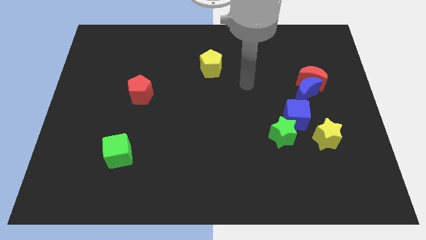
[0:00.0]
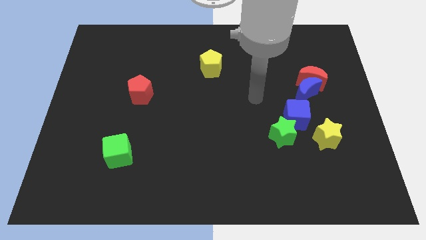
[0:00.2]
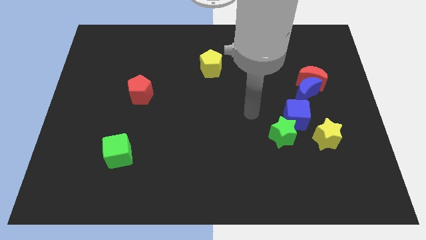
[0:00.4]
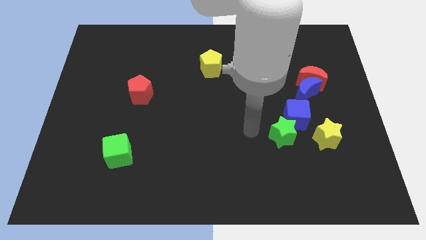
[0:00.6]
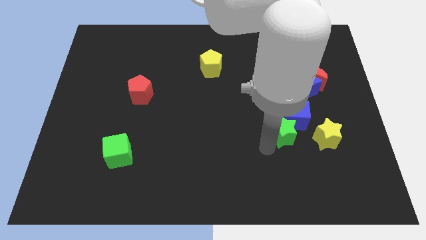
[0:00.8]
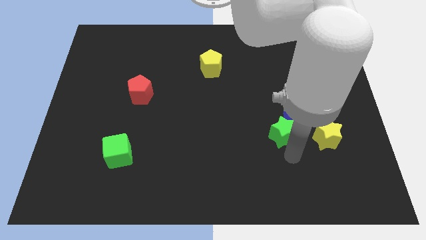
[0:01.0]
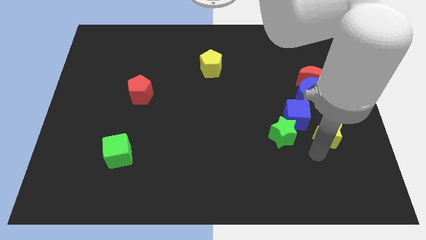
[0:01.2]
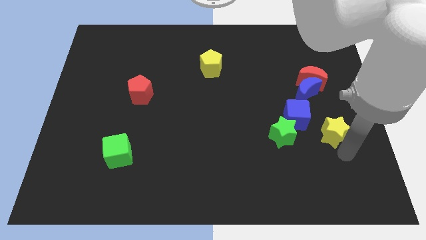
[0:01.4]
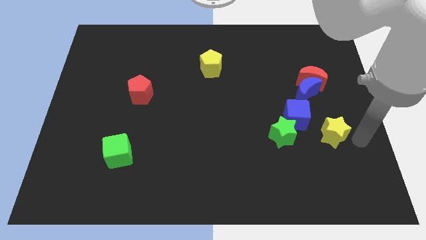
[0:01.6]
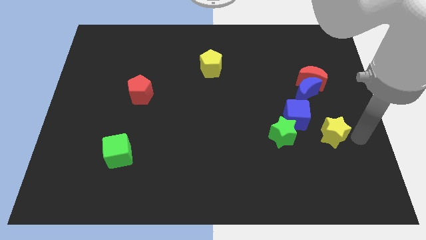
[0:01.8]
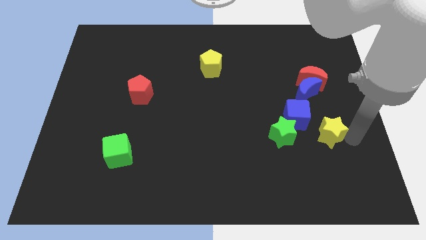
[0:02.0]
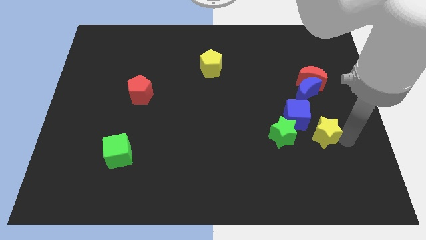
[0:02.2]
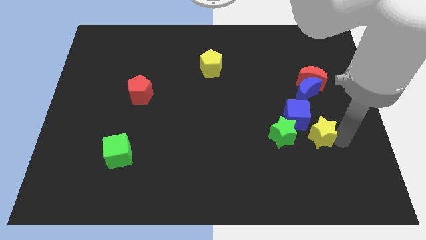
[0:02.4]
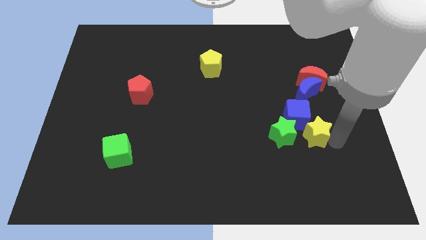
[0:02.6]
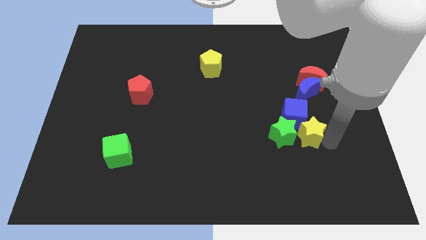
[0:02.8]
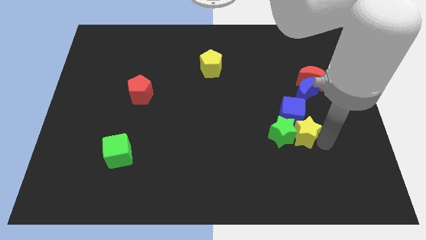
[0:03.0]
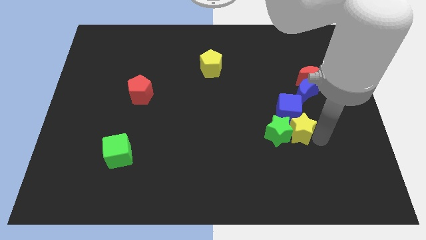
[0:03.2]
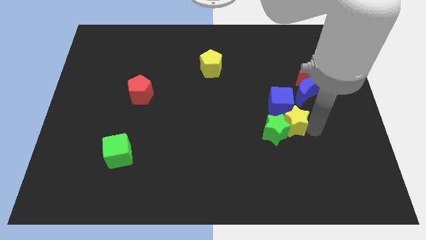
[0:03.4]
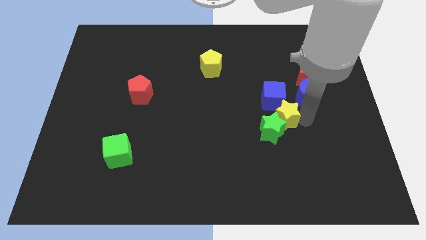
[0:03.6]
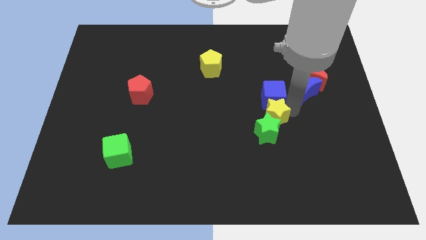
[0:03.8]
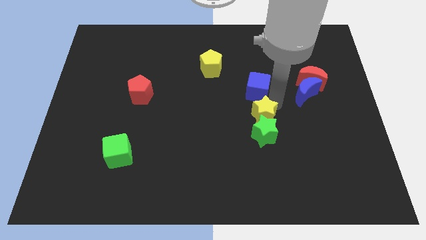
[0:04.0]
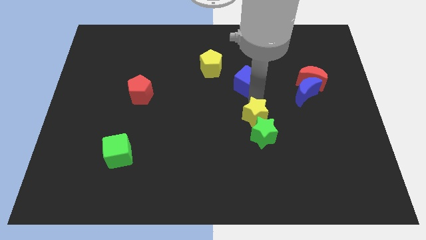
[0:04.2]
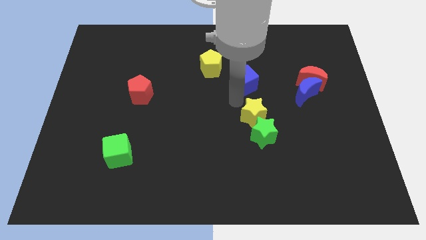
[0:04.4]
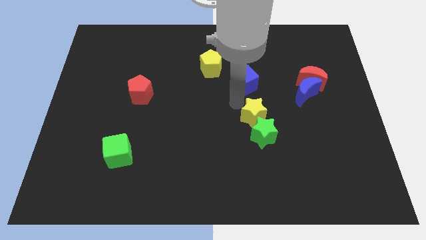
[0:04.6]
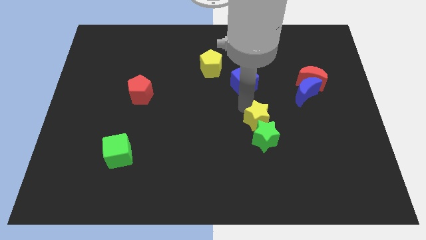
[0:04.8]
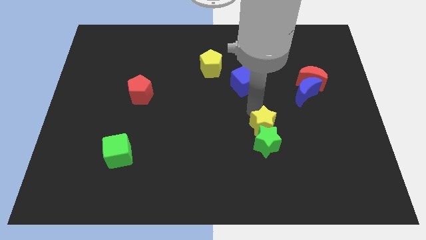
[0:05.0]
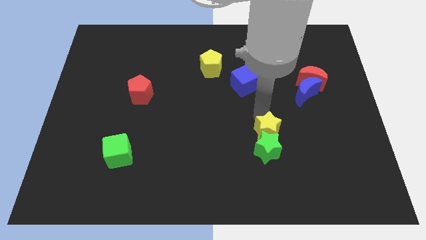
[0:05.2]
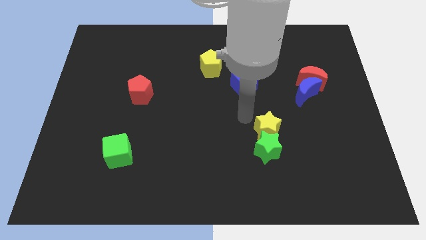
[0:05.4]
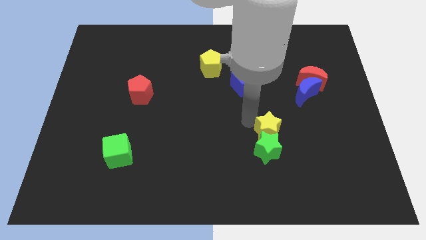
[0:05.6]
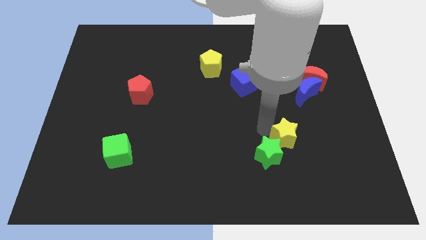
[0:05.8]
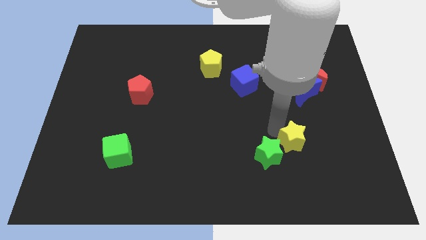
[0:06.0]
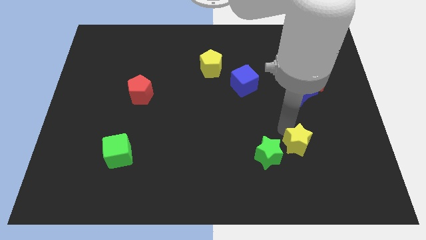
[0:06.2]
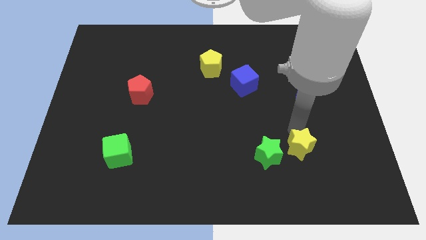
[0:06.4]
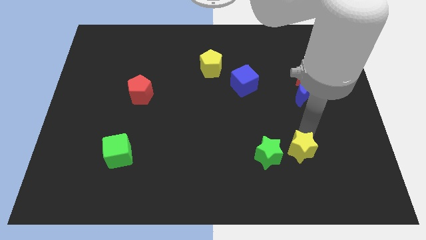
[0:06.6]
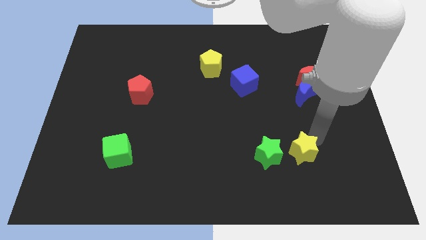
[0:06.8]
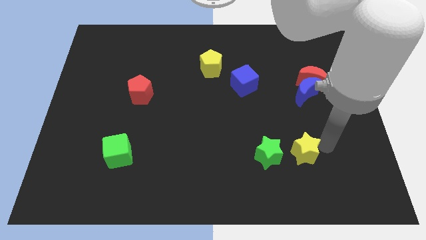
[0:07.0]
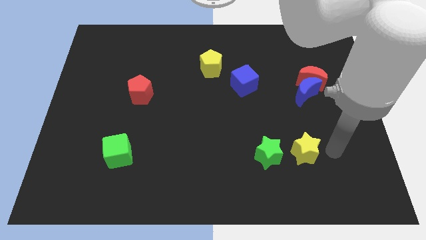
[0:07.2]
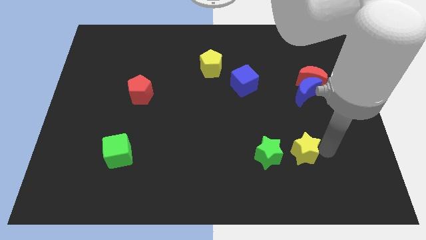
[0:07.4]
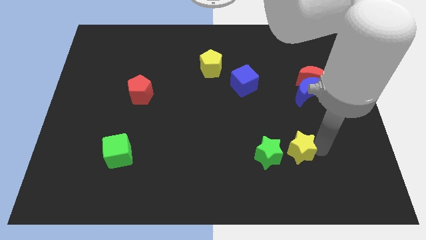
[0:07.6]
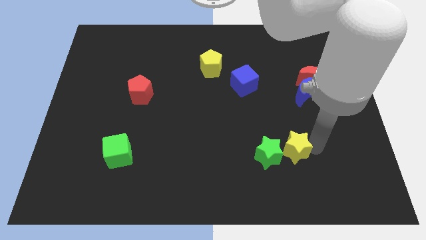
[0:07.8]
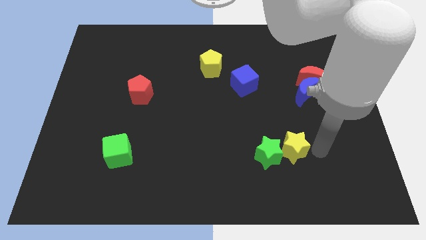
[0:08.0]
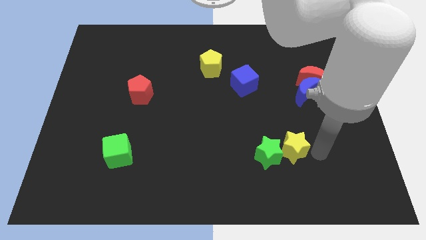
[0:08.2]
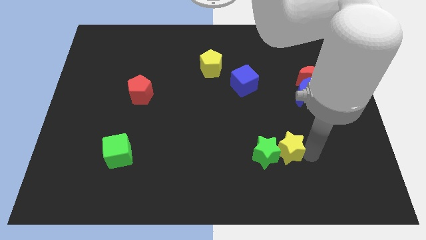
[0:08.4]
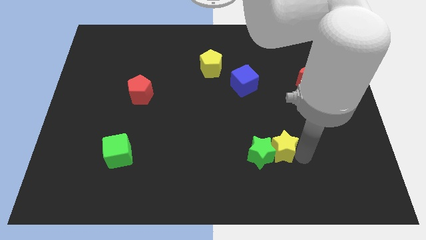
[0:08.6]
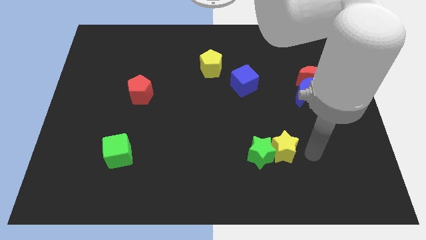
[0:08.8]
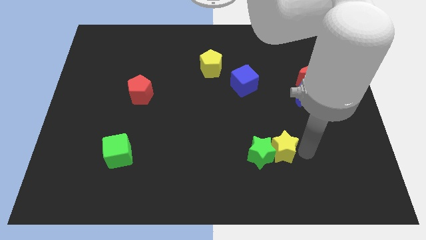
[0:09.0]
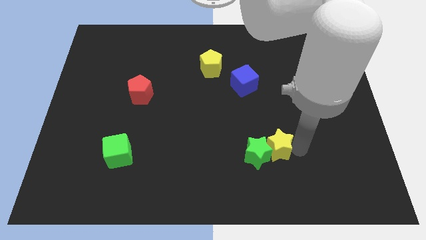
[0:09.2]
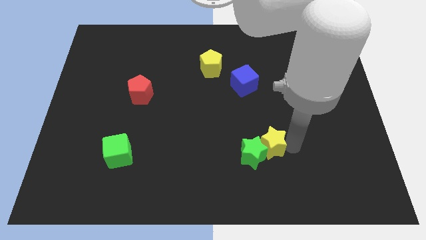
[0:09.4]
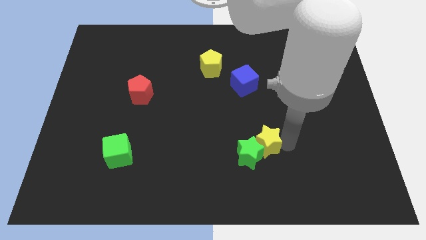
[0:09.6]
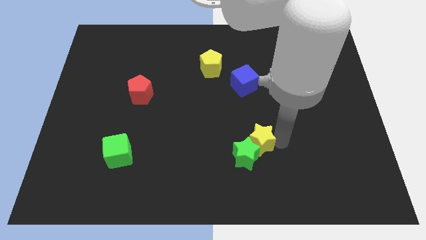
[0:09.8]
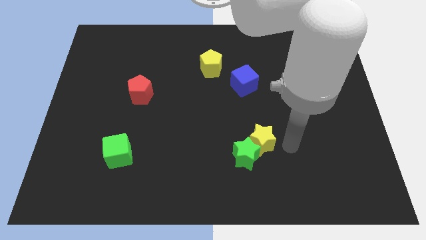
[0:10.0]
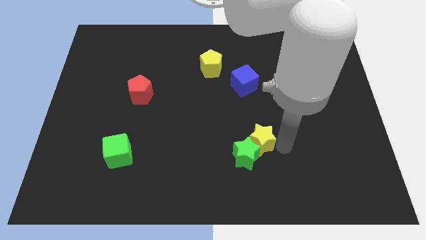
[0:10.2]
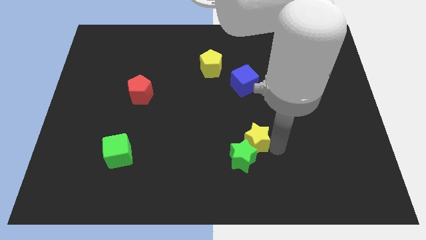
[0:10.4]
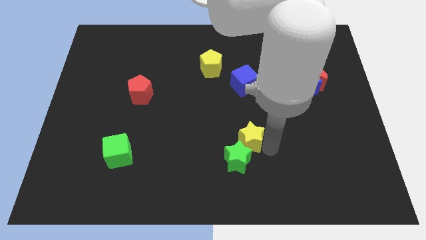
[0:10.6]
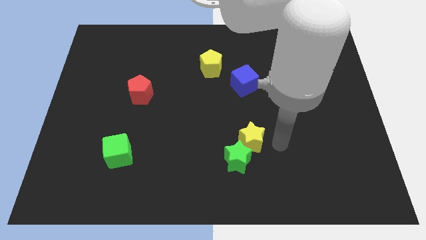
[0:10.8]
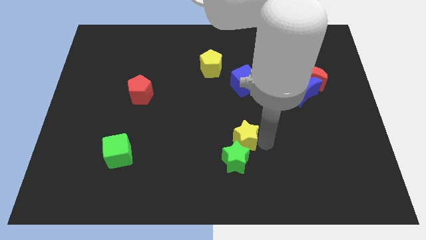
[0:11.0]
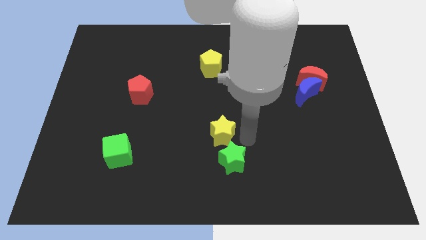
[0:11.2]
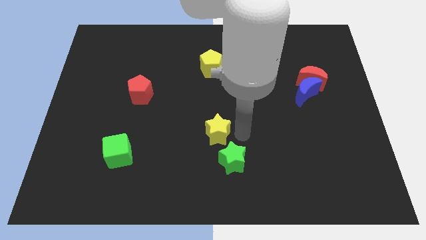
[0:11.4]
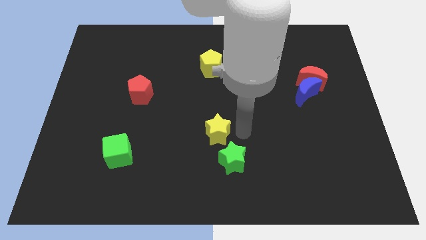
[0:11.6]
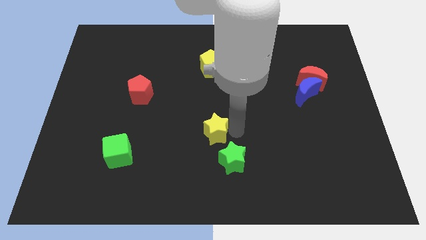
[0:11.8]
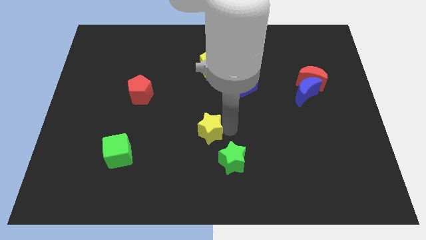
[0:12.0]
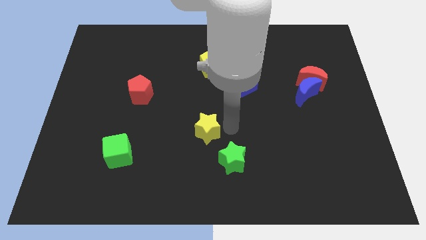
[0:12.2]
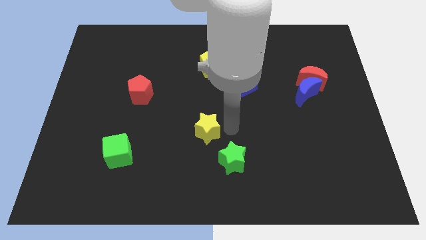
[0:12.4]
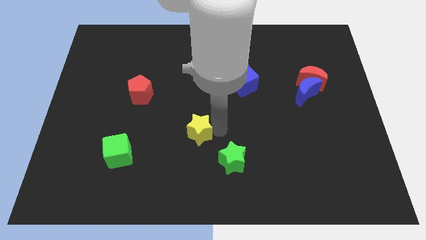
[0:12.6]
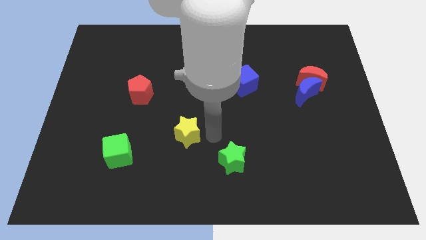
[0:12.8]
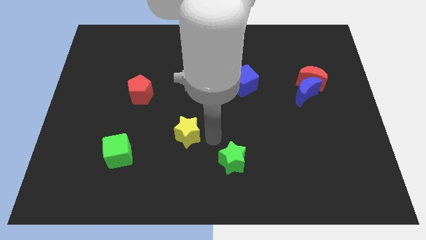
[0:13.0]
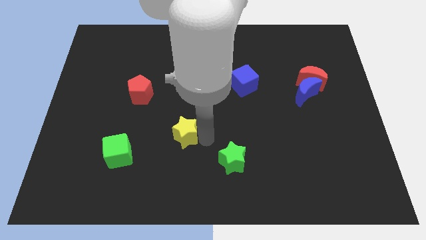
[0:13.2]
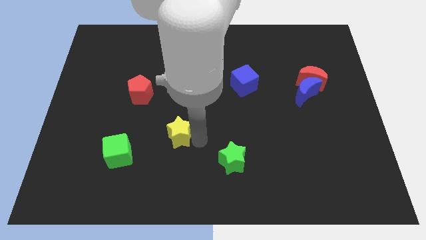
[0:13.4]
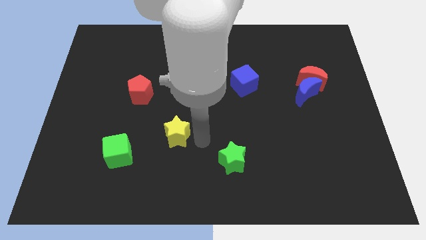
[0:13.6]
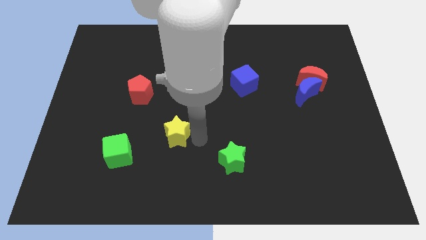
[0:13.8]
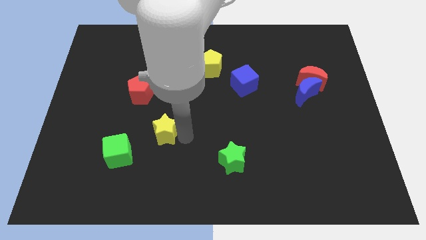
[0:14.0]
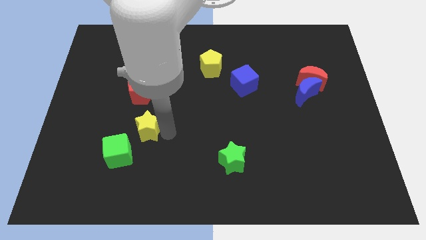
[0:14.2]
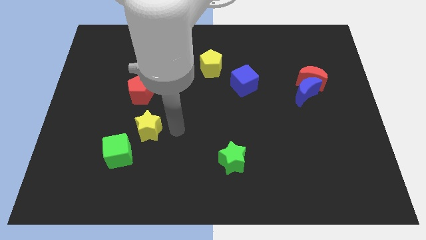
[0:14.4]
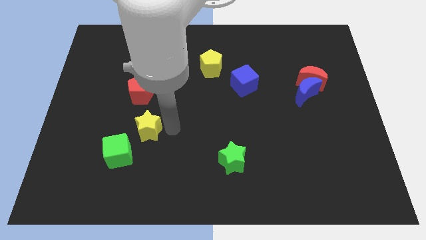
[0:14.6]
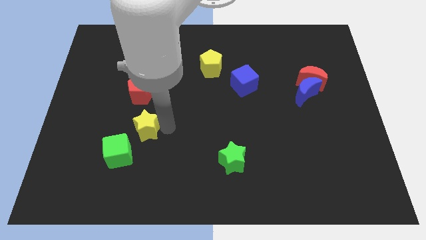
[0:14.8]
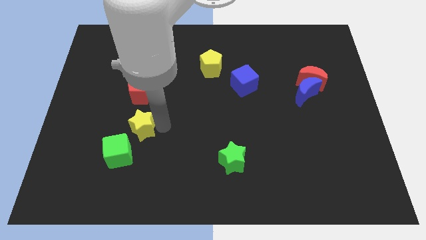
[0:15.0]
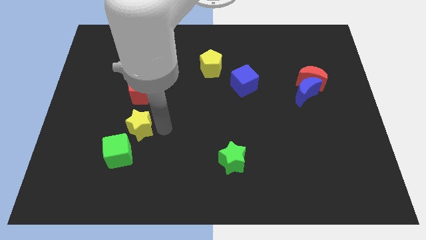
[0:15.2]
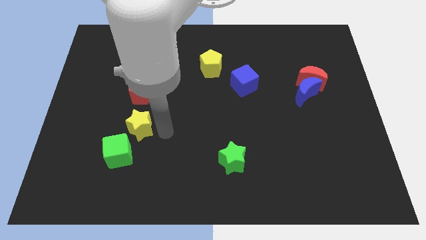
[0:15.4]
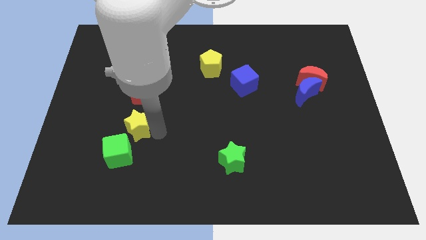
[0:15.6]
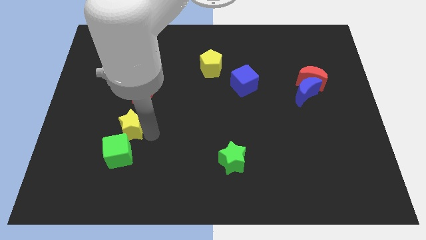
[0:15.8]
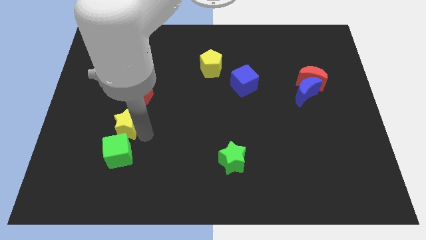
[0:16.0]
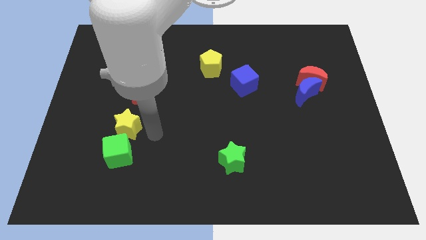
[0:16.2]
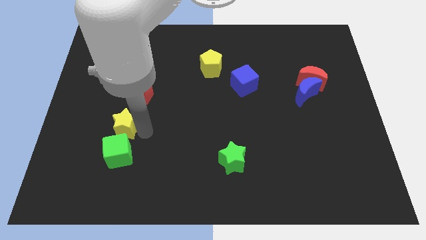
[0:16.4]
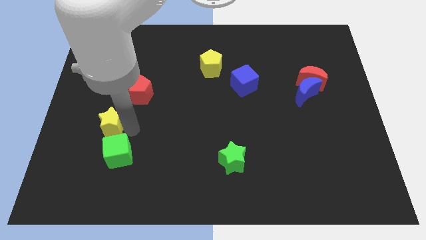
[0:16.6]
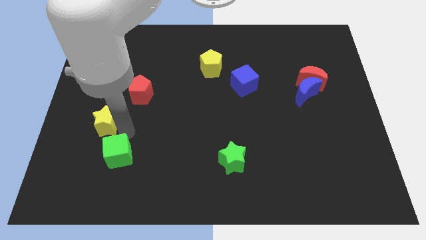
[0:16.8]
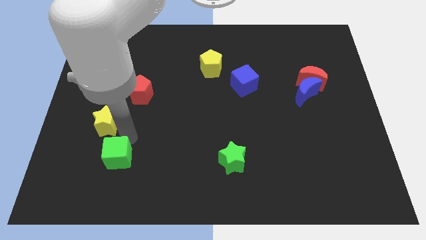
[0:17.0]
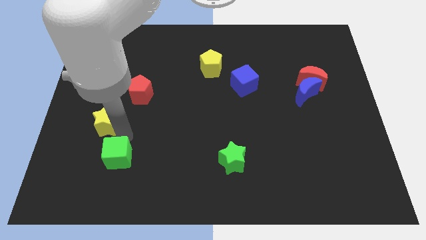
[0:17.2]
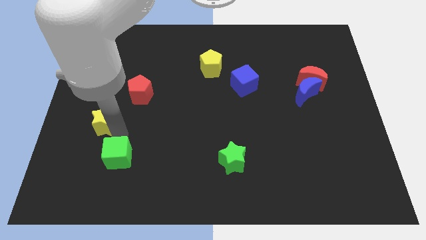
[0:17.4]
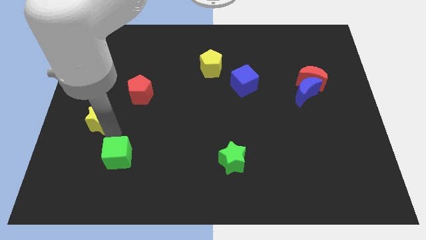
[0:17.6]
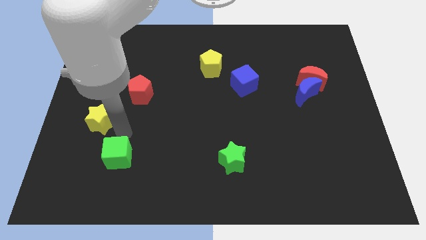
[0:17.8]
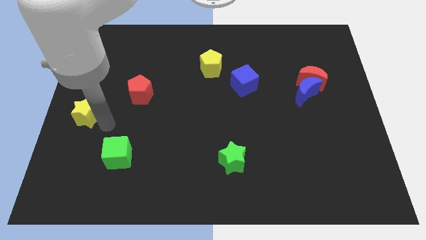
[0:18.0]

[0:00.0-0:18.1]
put the yellow star to the center left
